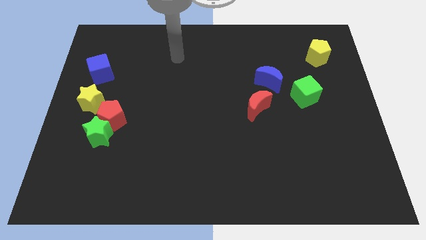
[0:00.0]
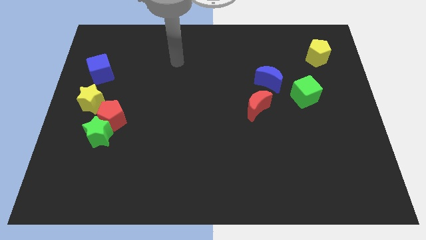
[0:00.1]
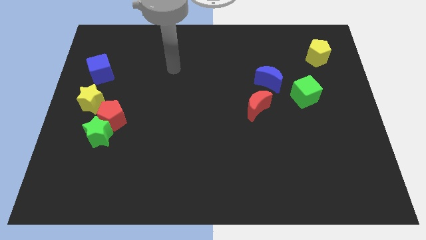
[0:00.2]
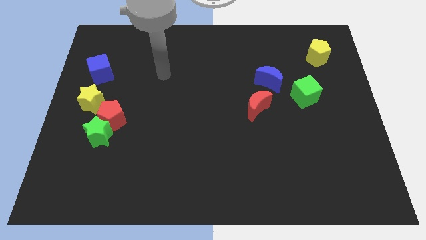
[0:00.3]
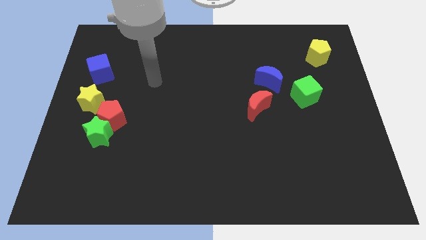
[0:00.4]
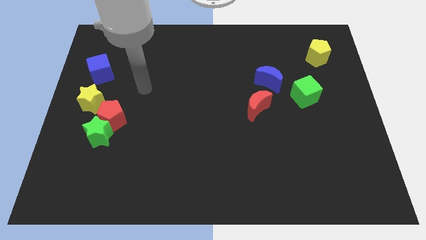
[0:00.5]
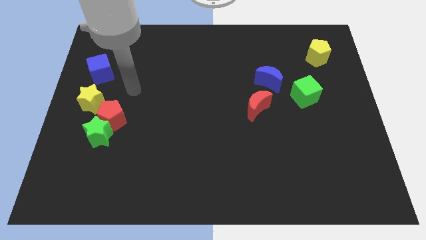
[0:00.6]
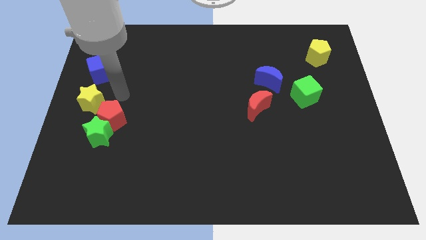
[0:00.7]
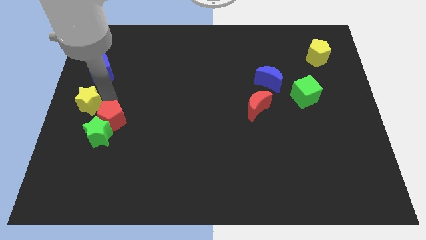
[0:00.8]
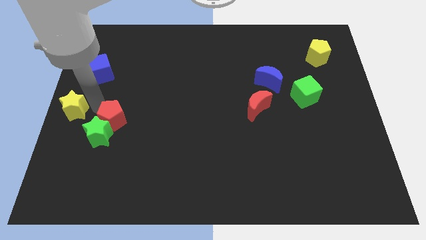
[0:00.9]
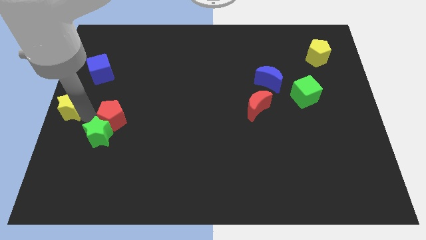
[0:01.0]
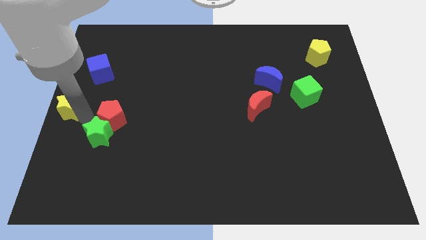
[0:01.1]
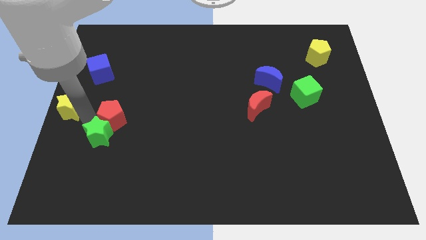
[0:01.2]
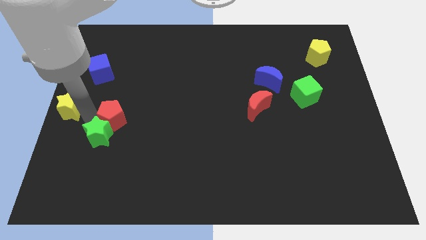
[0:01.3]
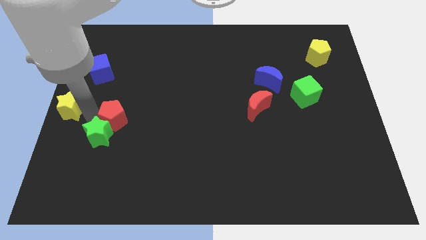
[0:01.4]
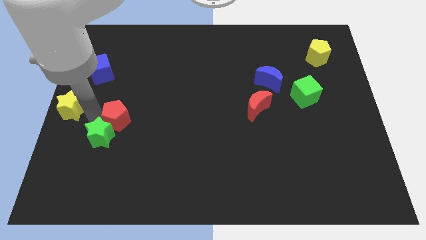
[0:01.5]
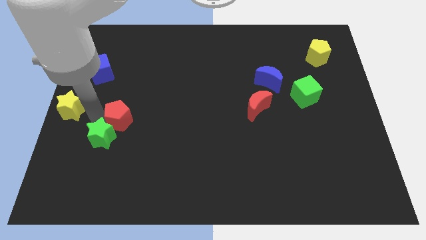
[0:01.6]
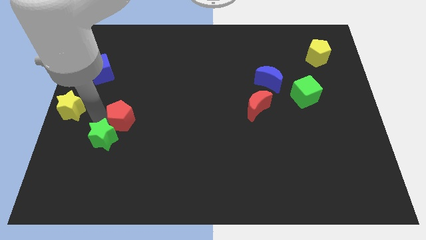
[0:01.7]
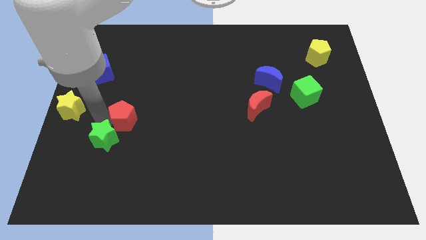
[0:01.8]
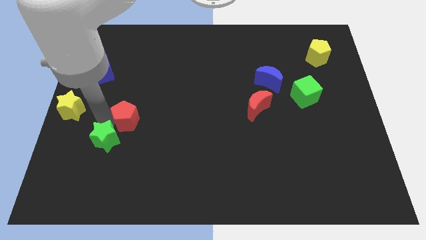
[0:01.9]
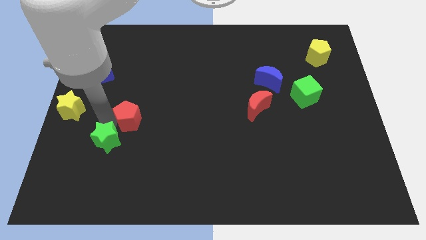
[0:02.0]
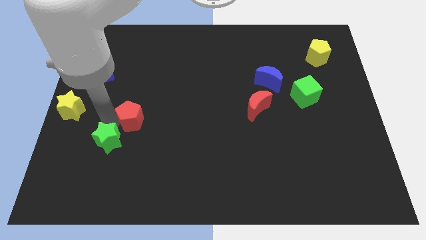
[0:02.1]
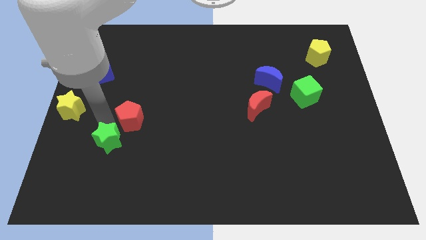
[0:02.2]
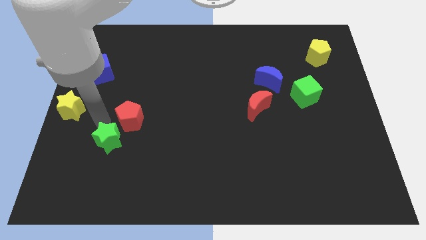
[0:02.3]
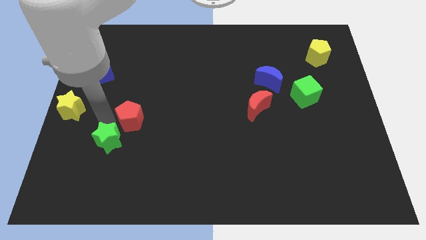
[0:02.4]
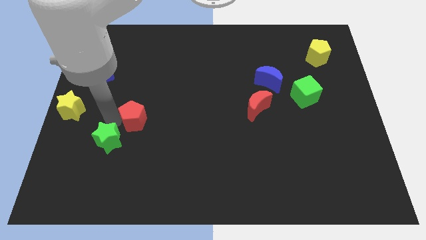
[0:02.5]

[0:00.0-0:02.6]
pull the red pentagon apart from the green star and yellow star

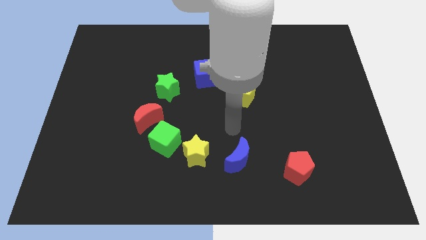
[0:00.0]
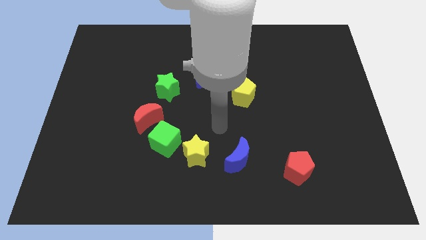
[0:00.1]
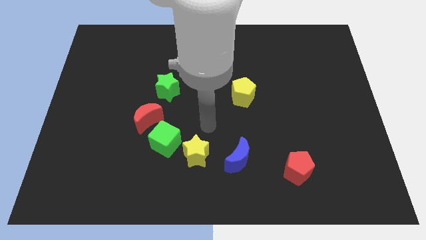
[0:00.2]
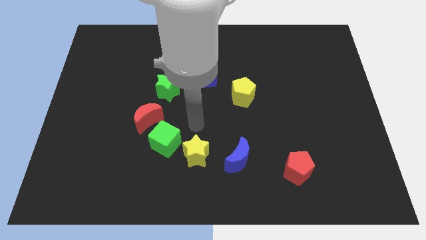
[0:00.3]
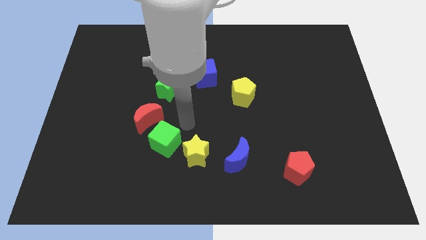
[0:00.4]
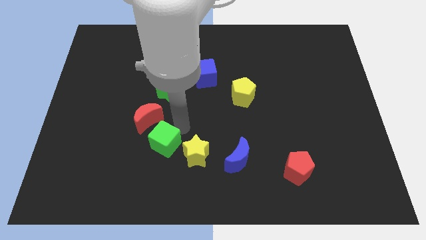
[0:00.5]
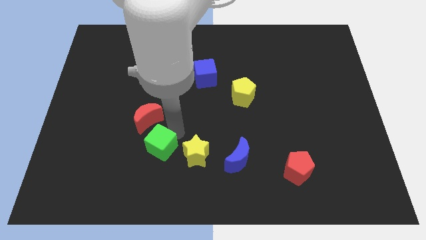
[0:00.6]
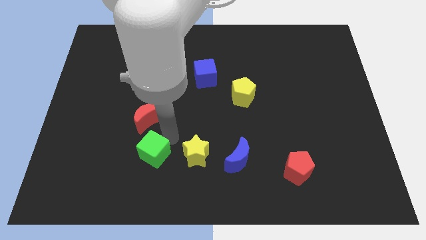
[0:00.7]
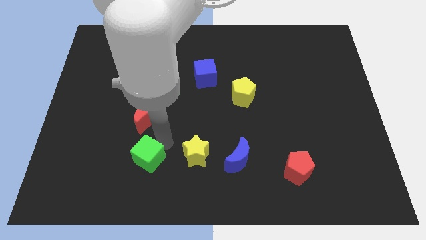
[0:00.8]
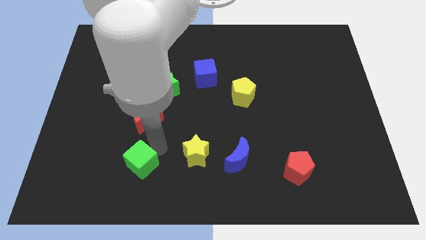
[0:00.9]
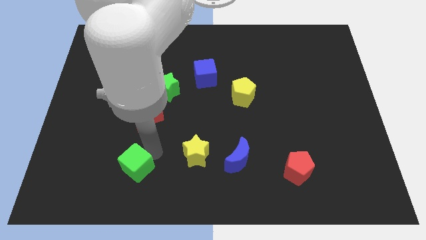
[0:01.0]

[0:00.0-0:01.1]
pull the green cube apart from the red moon and yellow star

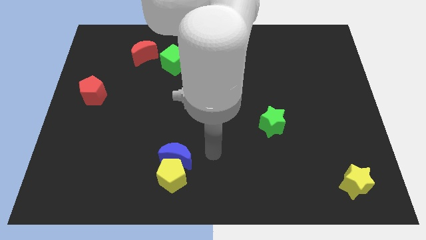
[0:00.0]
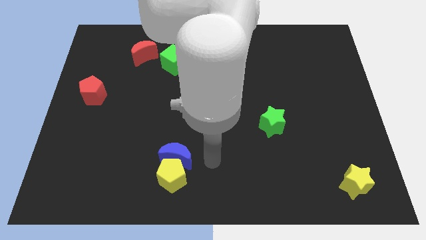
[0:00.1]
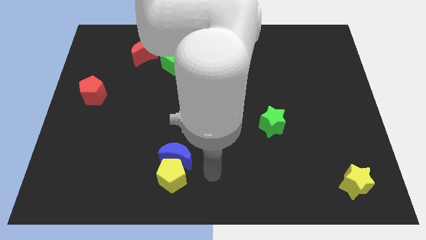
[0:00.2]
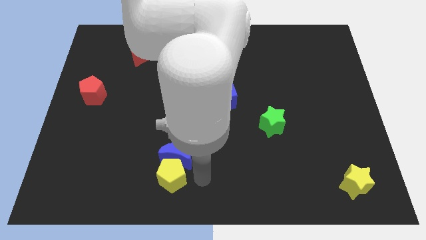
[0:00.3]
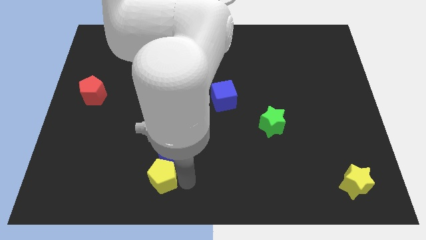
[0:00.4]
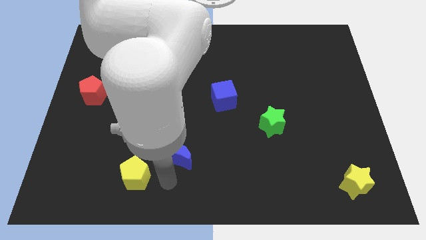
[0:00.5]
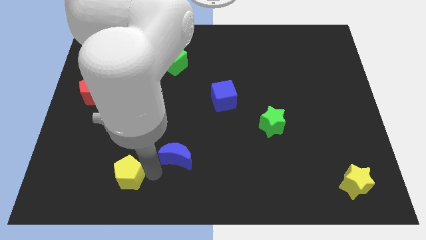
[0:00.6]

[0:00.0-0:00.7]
pull the blue moon apart from the yellow pentagon

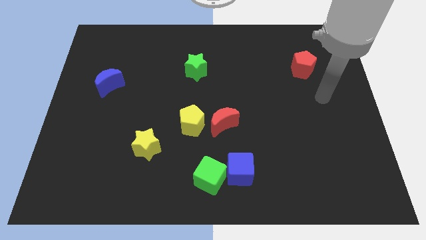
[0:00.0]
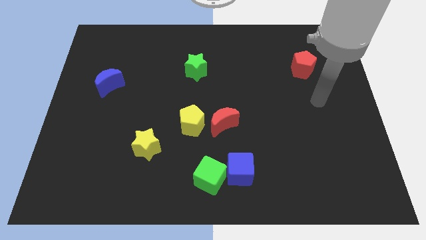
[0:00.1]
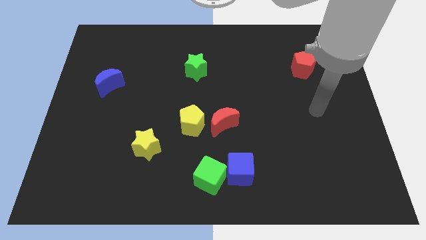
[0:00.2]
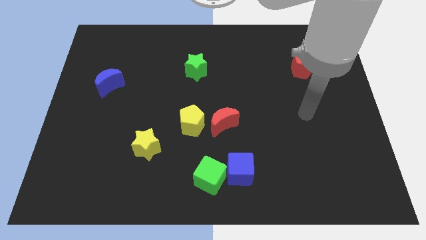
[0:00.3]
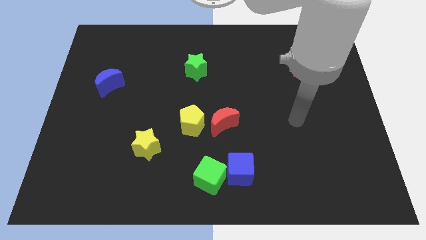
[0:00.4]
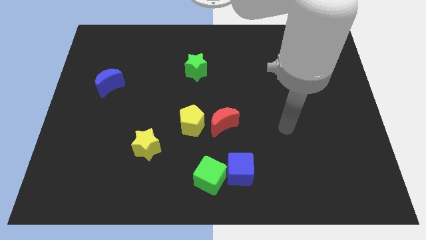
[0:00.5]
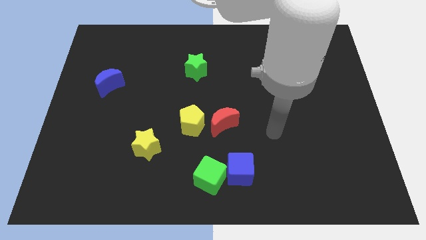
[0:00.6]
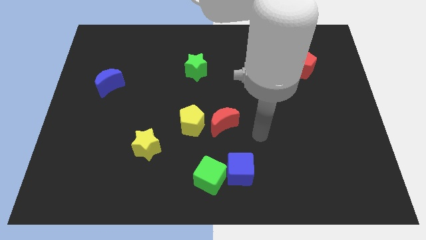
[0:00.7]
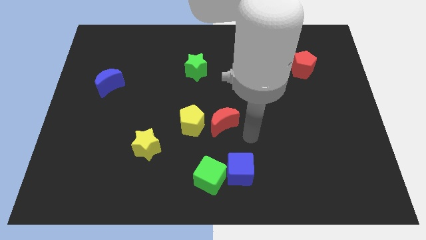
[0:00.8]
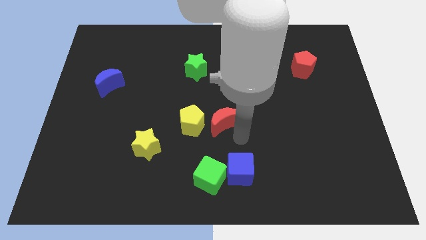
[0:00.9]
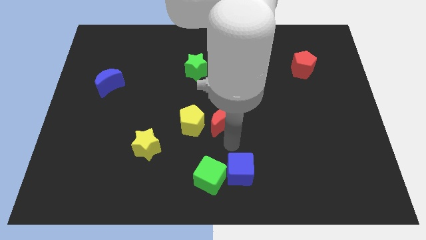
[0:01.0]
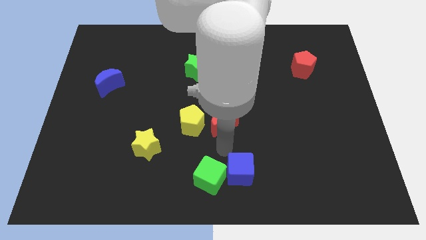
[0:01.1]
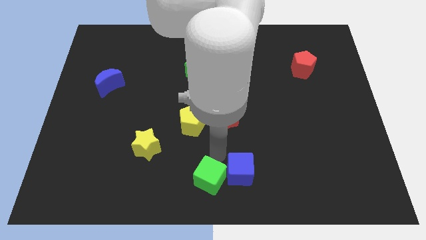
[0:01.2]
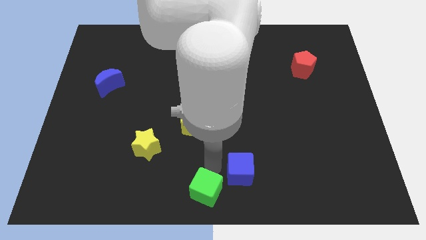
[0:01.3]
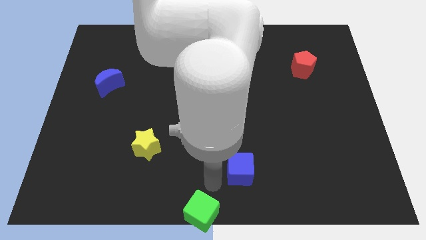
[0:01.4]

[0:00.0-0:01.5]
move the blue cube away from the green cube

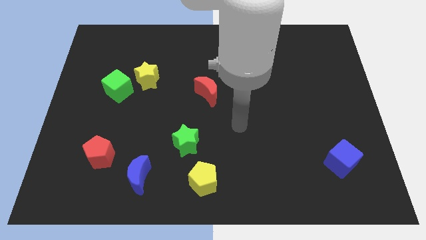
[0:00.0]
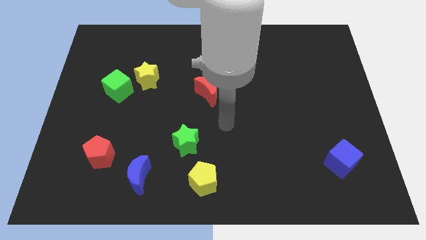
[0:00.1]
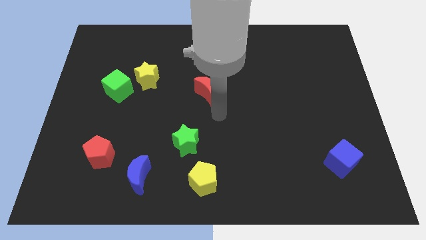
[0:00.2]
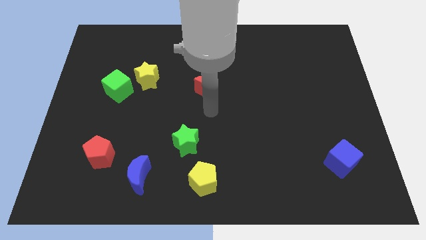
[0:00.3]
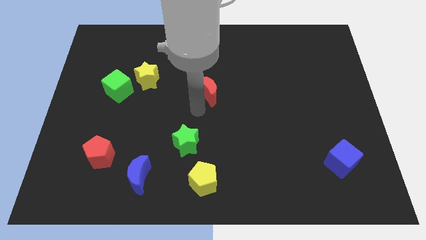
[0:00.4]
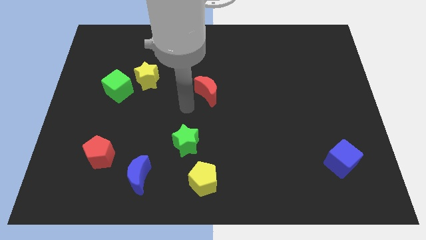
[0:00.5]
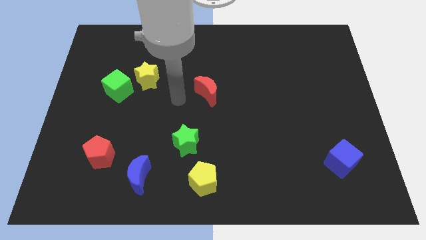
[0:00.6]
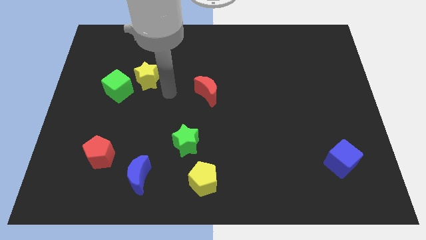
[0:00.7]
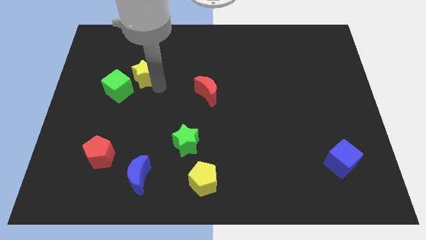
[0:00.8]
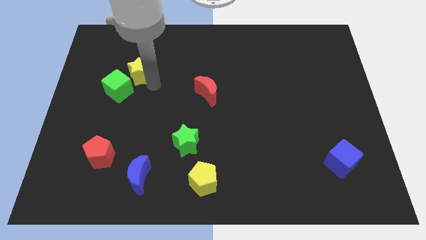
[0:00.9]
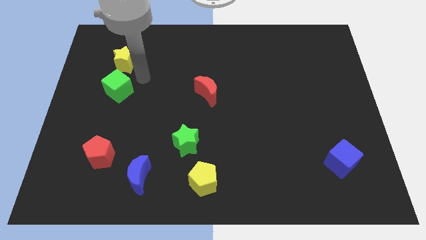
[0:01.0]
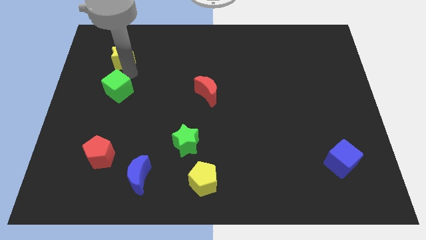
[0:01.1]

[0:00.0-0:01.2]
separate the green cube from the yellow star

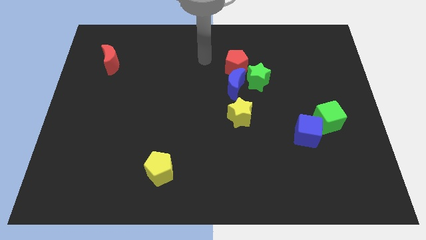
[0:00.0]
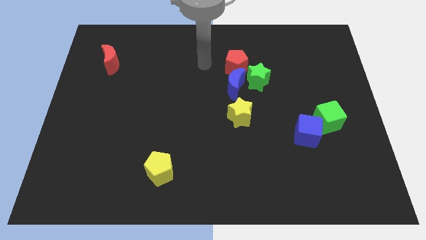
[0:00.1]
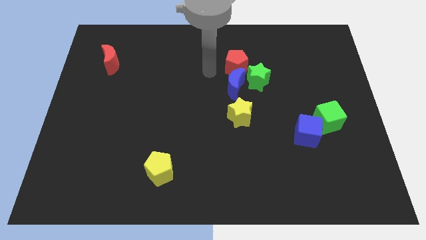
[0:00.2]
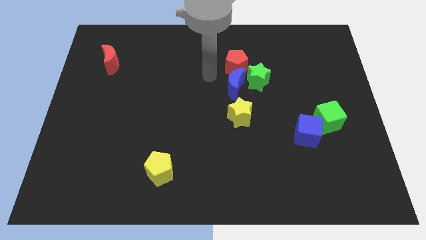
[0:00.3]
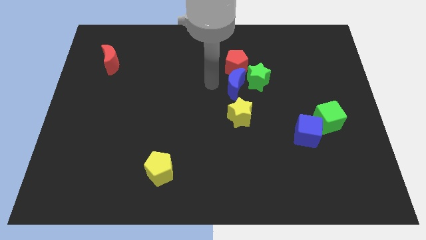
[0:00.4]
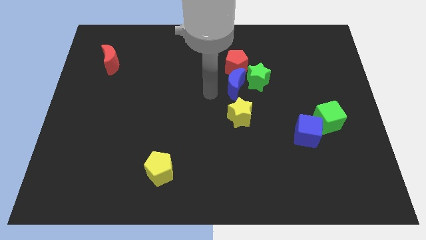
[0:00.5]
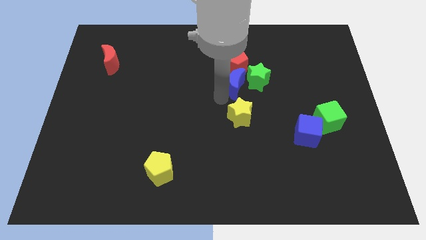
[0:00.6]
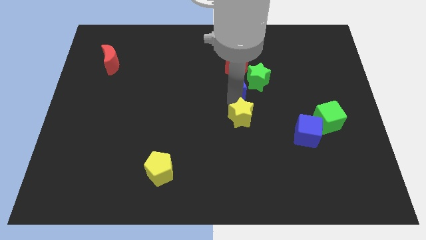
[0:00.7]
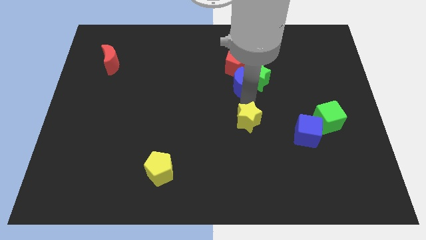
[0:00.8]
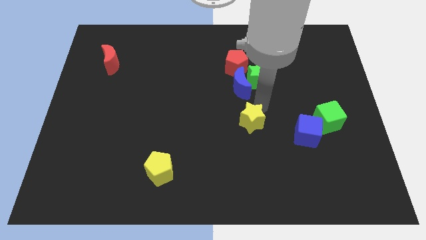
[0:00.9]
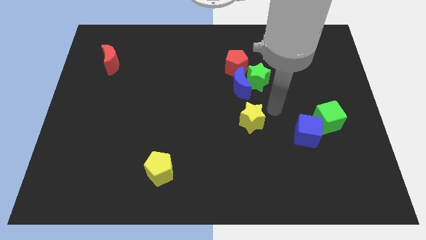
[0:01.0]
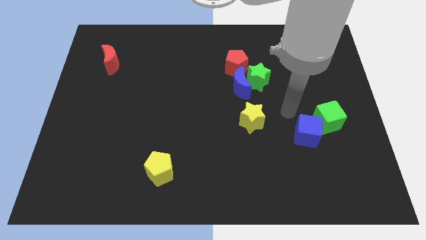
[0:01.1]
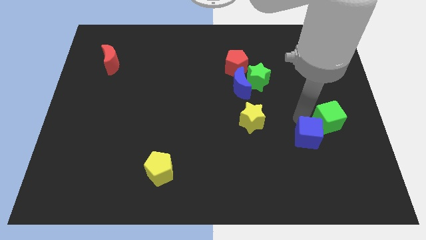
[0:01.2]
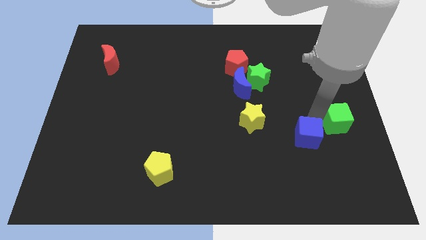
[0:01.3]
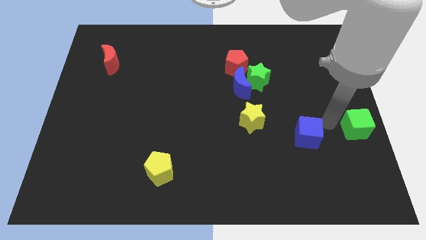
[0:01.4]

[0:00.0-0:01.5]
pull the blue cube apart from the green cube

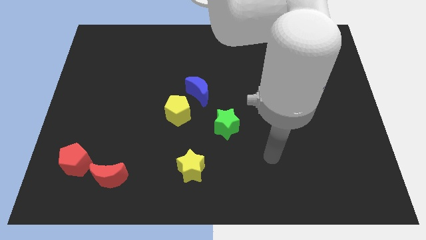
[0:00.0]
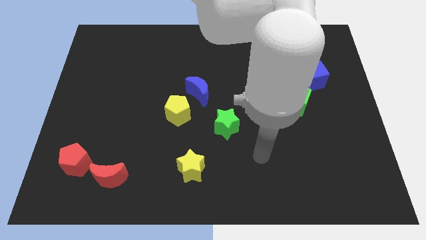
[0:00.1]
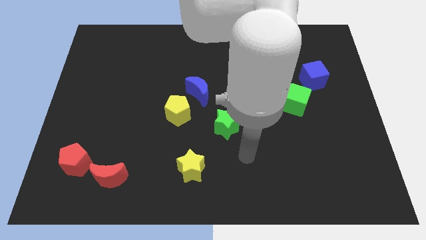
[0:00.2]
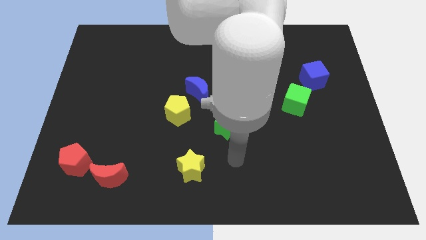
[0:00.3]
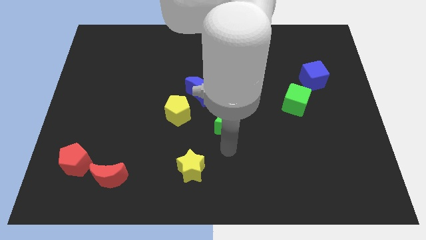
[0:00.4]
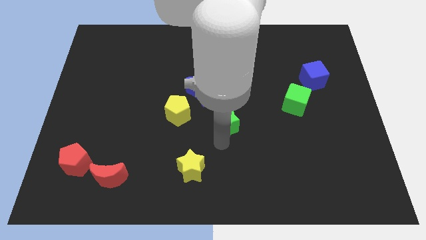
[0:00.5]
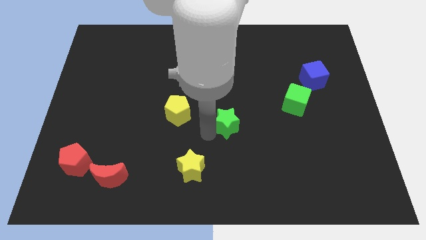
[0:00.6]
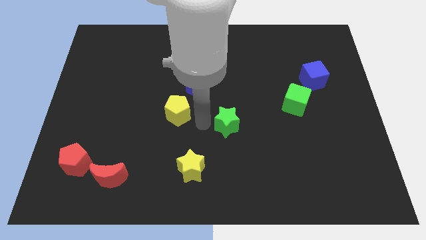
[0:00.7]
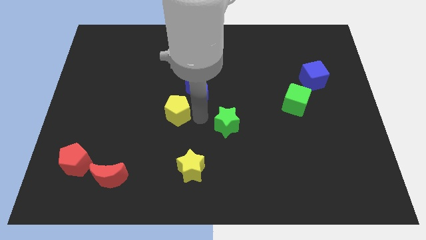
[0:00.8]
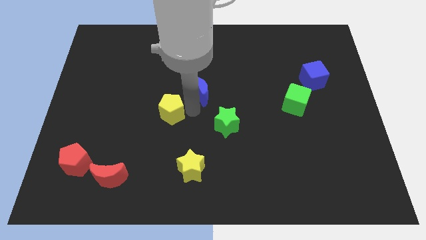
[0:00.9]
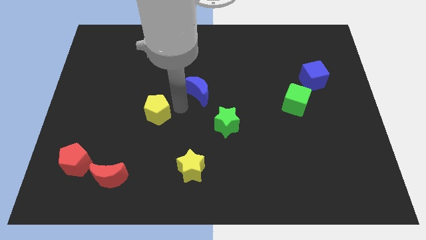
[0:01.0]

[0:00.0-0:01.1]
separate the blue moon from the yellow pentagon
